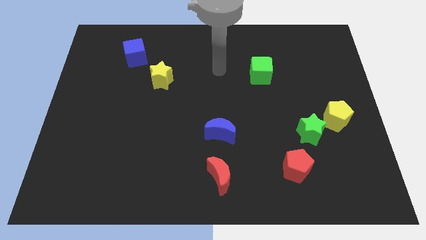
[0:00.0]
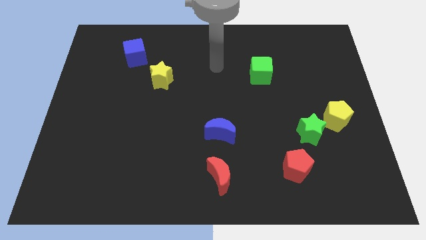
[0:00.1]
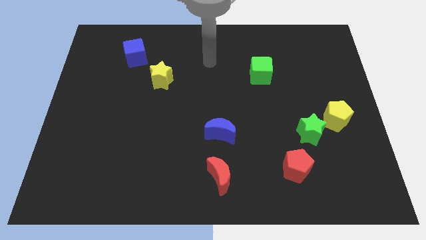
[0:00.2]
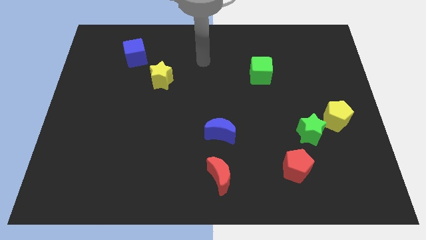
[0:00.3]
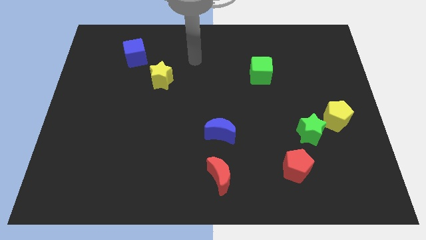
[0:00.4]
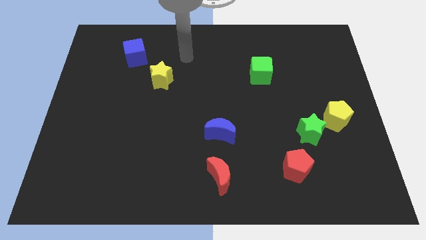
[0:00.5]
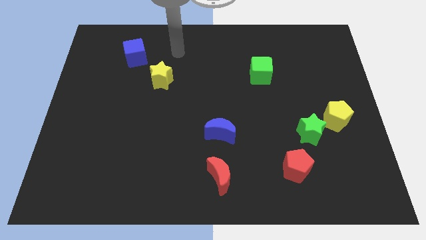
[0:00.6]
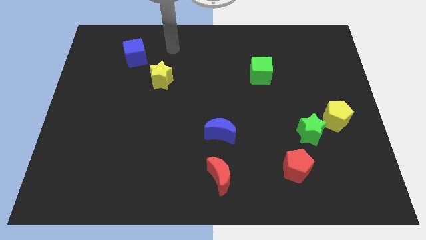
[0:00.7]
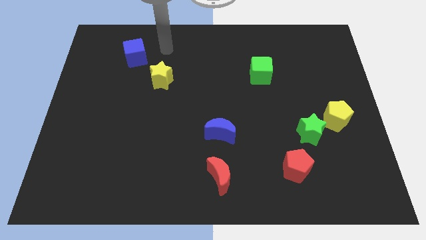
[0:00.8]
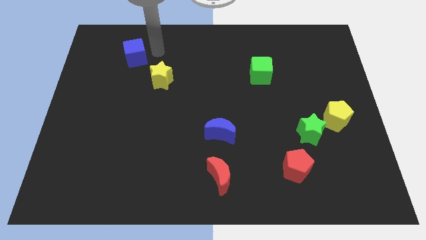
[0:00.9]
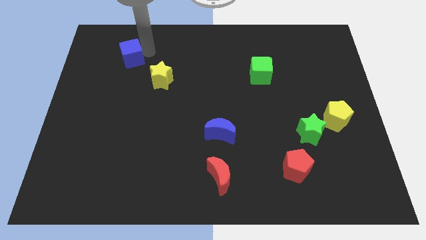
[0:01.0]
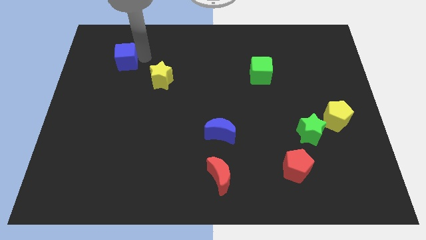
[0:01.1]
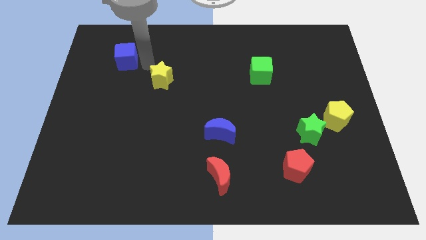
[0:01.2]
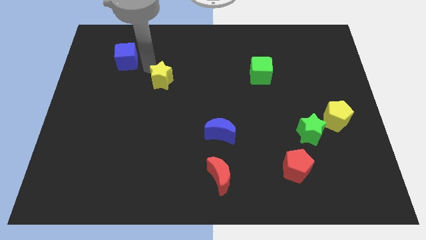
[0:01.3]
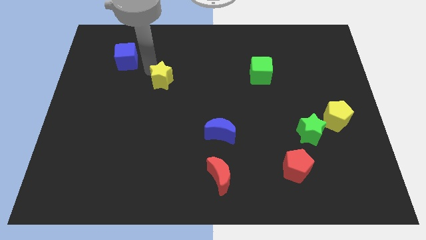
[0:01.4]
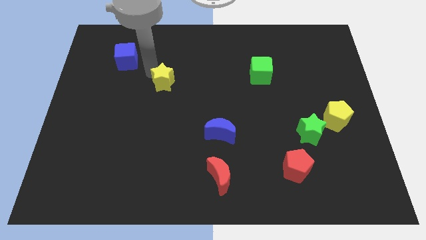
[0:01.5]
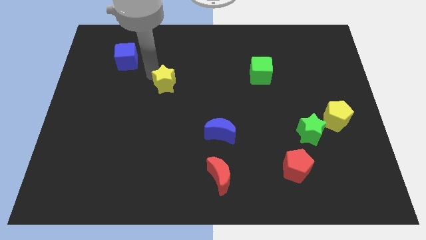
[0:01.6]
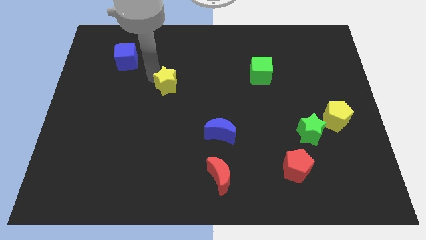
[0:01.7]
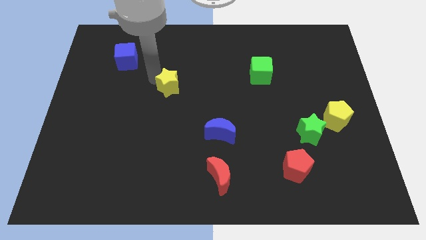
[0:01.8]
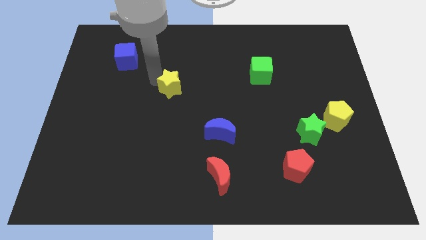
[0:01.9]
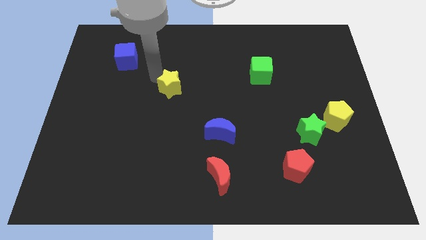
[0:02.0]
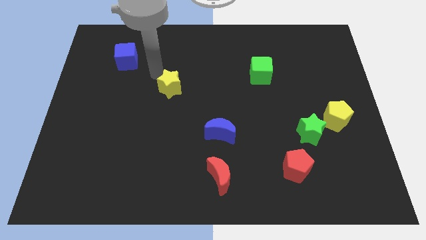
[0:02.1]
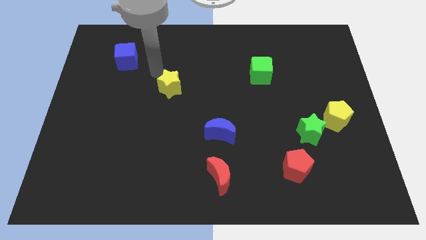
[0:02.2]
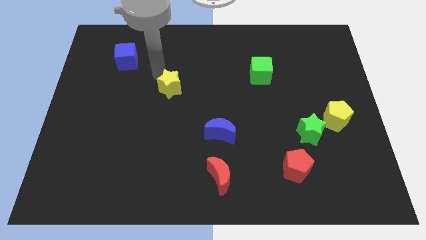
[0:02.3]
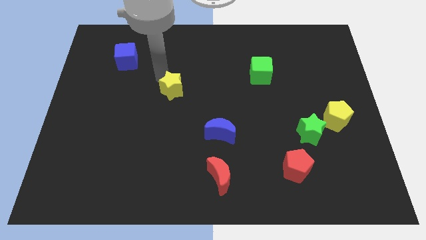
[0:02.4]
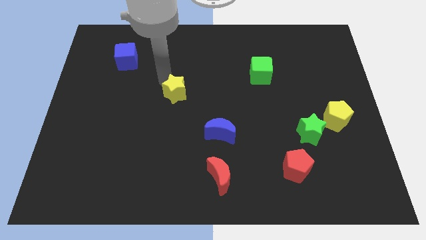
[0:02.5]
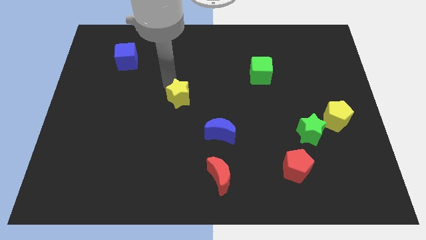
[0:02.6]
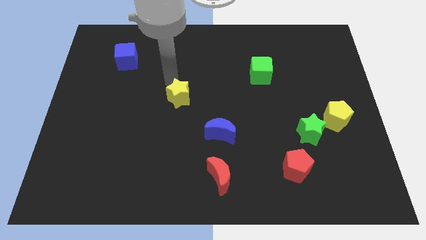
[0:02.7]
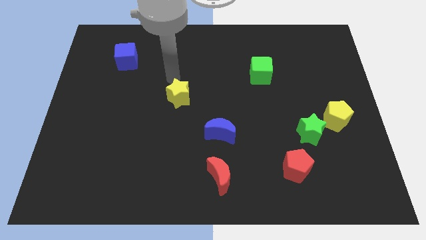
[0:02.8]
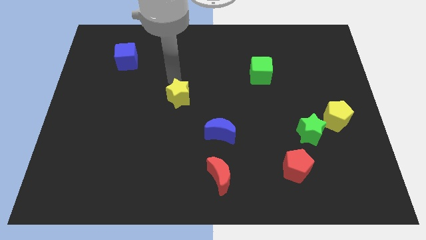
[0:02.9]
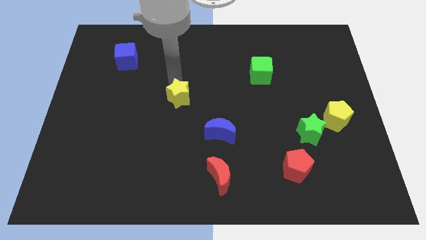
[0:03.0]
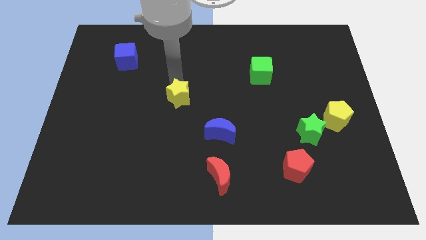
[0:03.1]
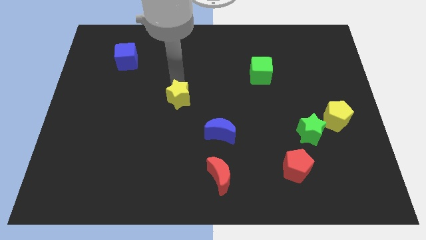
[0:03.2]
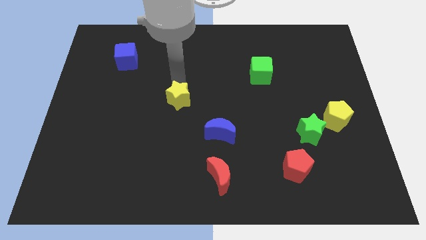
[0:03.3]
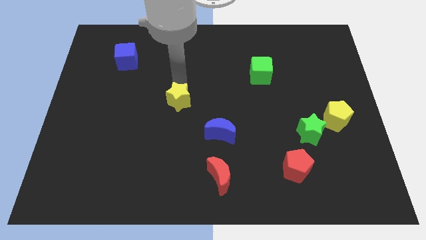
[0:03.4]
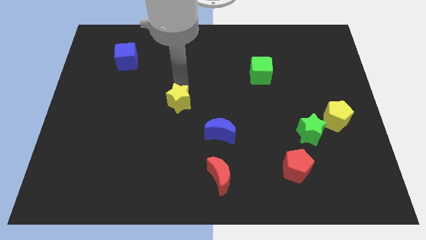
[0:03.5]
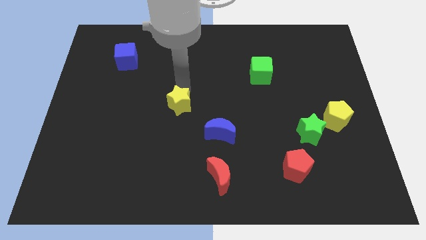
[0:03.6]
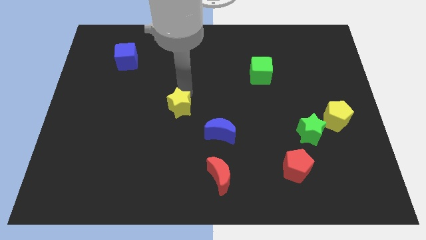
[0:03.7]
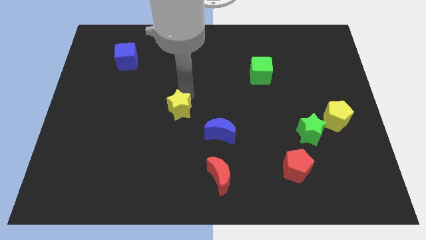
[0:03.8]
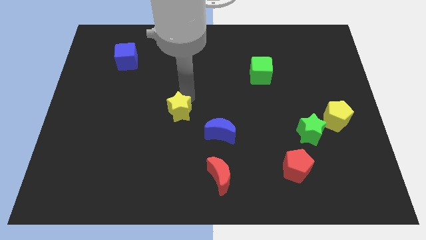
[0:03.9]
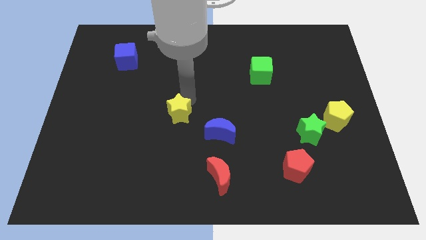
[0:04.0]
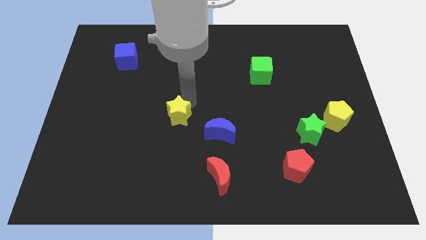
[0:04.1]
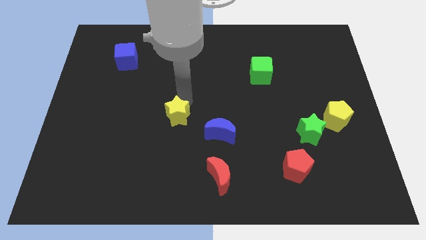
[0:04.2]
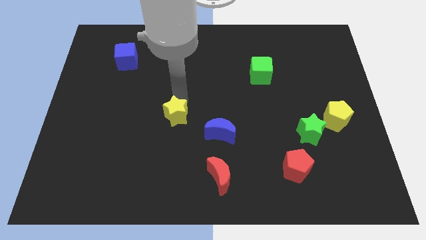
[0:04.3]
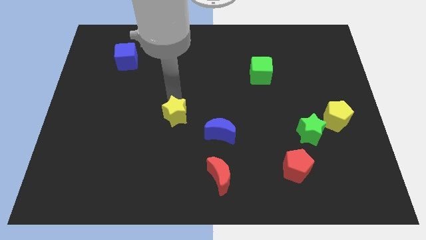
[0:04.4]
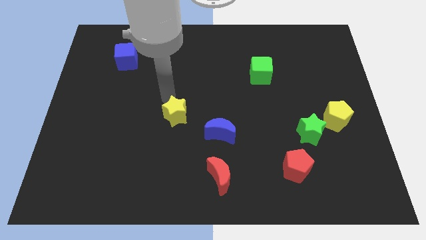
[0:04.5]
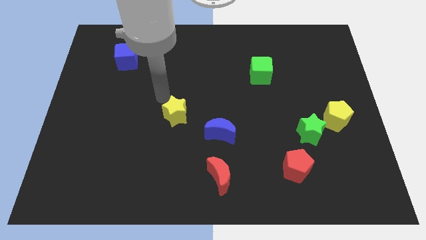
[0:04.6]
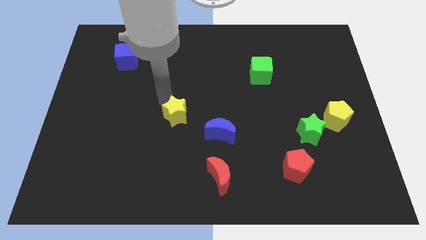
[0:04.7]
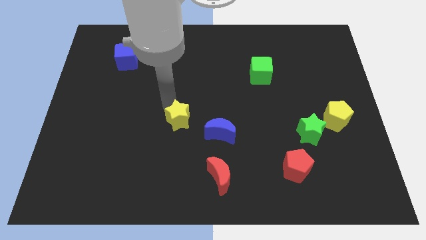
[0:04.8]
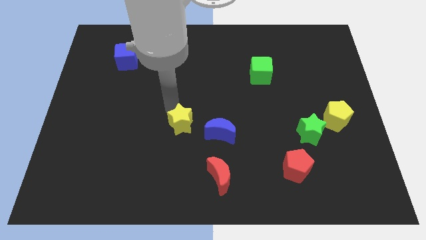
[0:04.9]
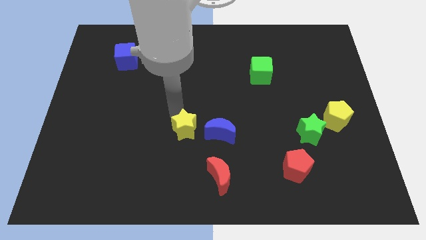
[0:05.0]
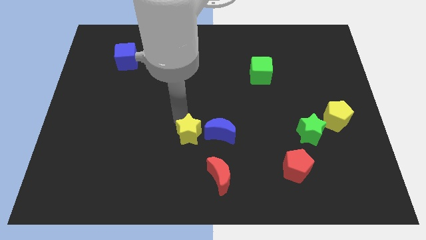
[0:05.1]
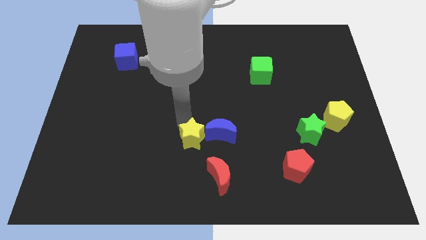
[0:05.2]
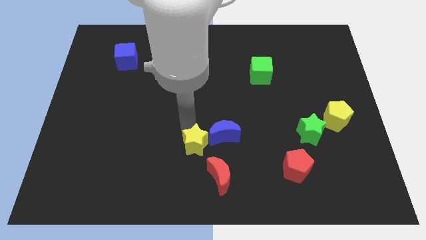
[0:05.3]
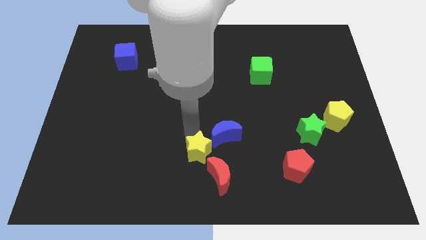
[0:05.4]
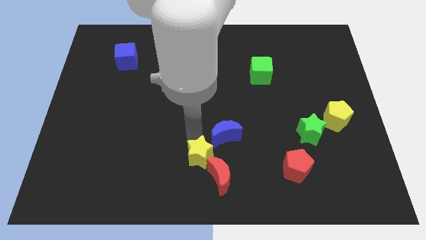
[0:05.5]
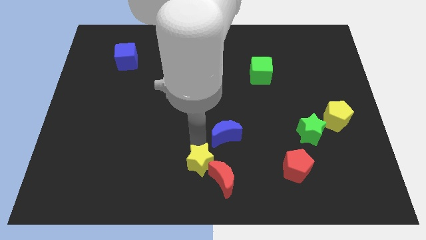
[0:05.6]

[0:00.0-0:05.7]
slide the yellow star below the blue moon
